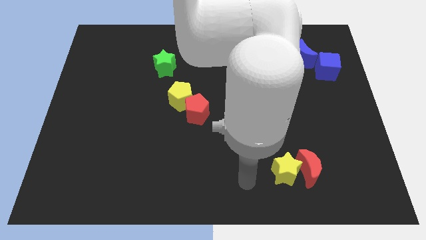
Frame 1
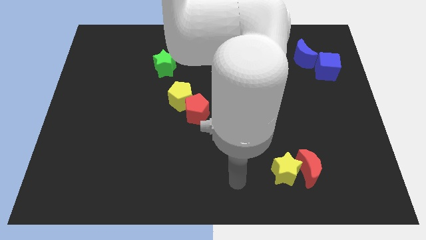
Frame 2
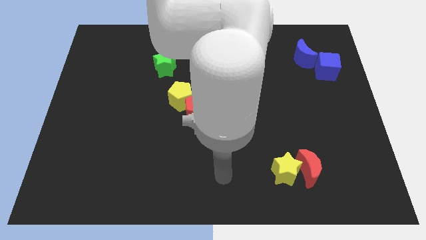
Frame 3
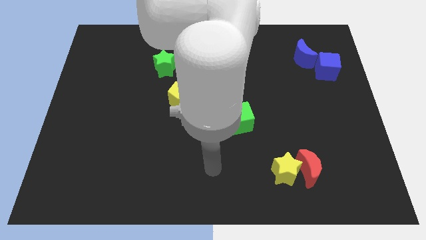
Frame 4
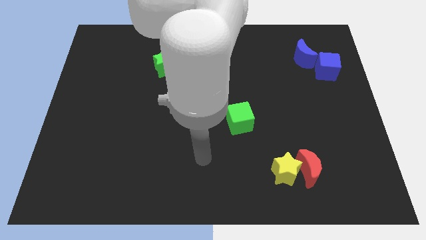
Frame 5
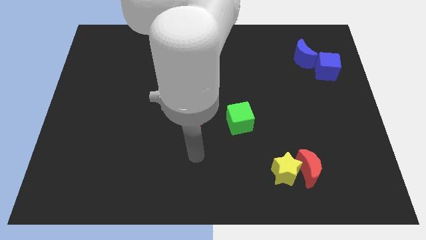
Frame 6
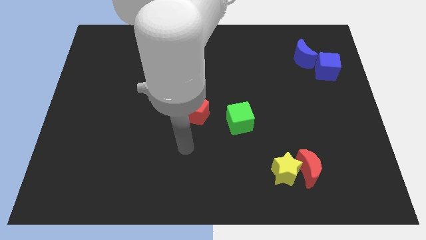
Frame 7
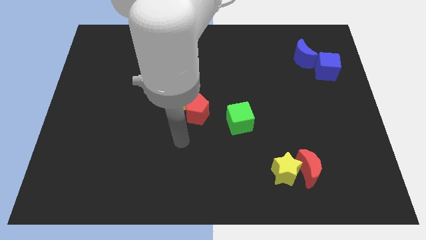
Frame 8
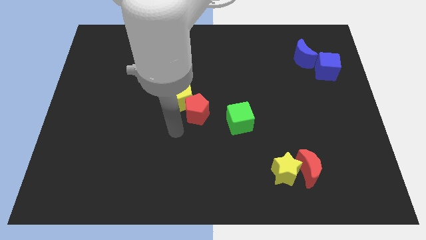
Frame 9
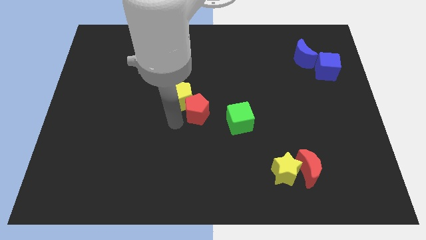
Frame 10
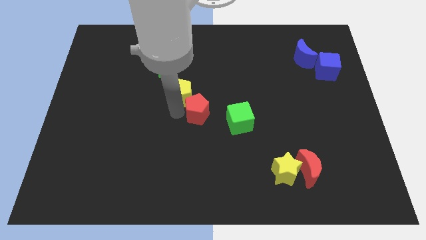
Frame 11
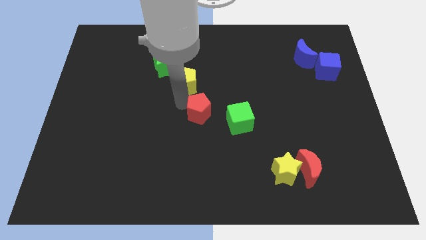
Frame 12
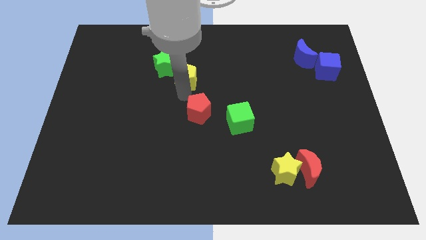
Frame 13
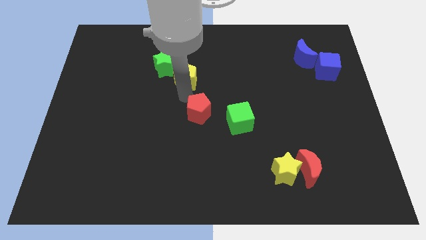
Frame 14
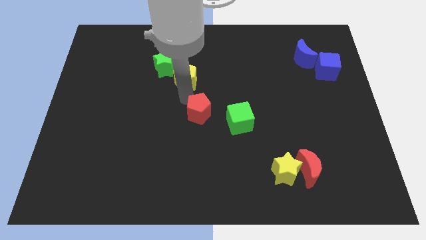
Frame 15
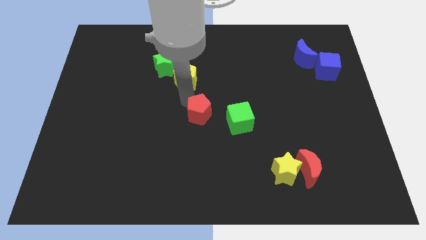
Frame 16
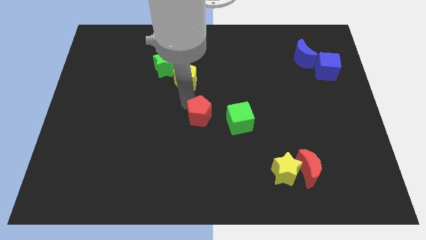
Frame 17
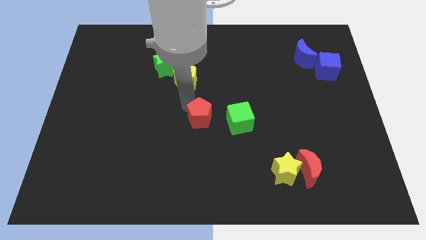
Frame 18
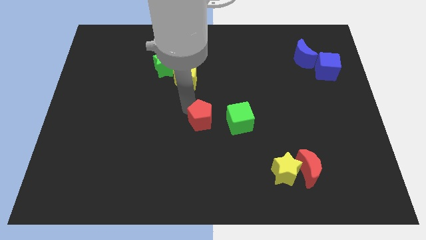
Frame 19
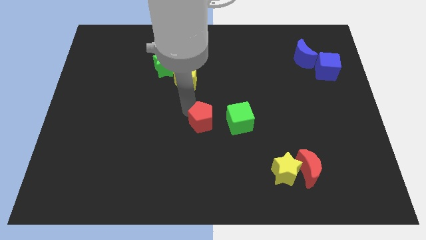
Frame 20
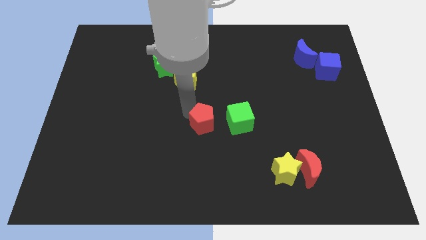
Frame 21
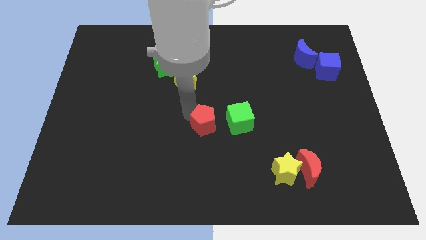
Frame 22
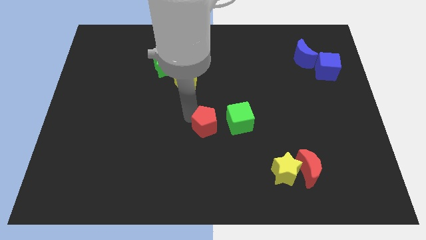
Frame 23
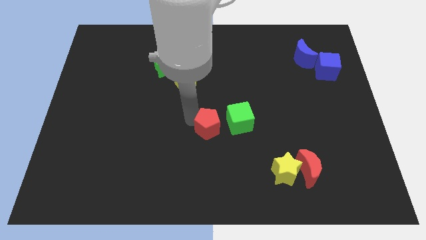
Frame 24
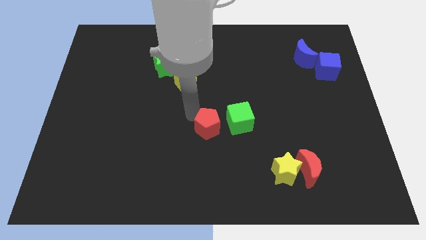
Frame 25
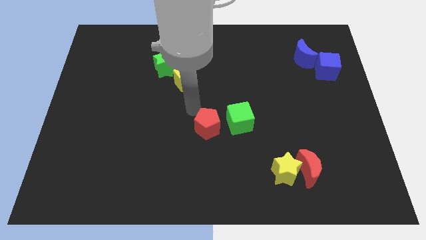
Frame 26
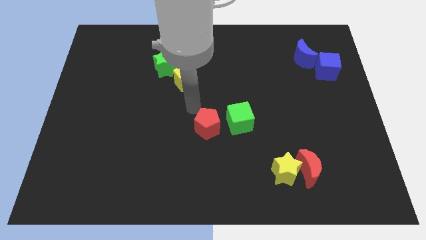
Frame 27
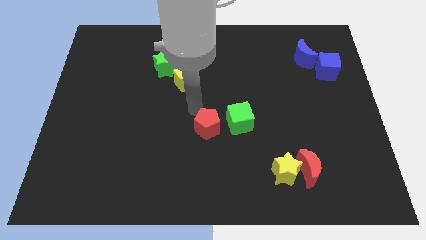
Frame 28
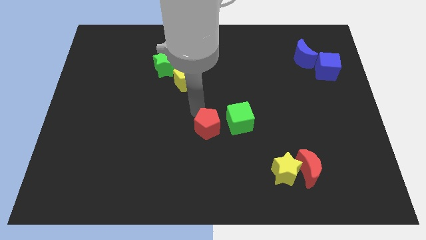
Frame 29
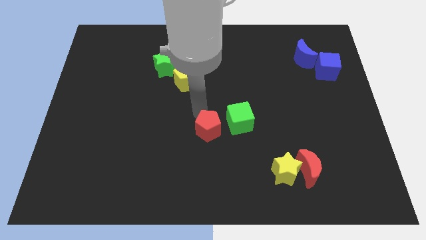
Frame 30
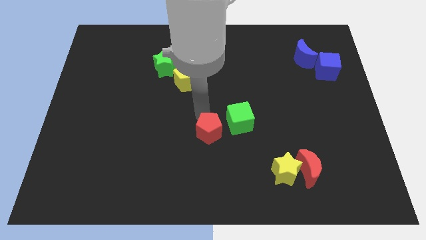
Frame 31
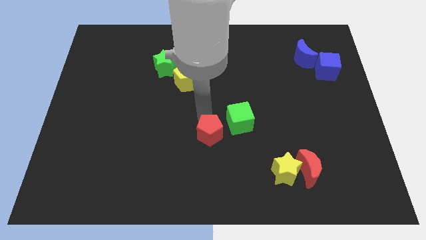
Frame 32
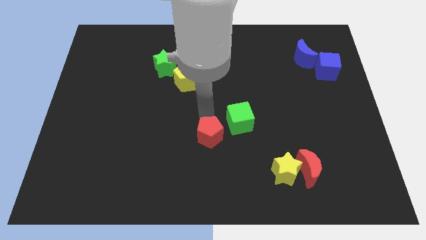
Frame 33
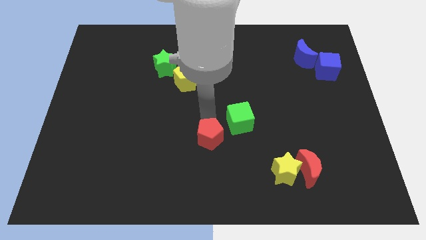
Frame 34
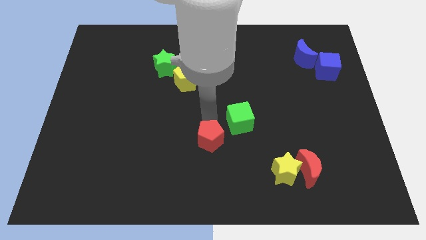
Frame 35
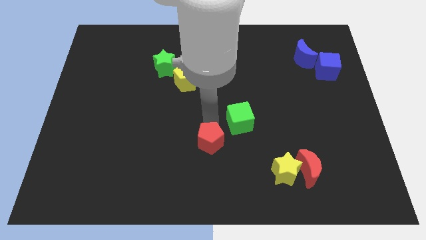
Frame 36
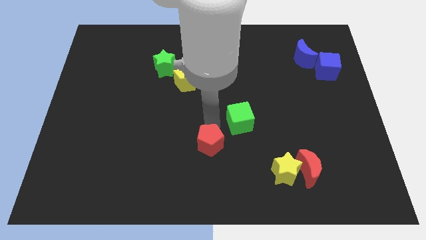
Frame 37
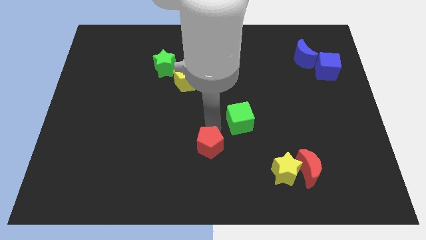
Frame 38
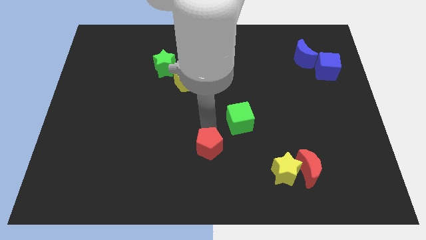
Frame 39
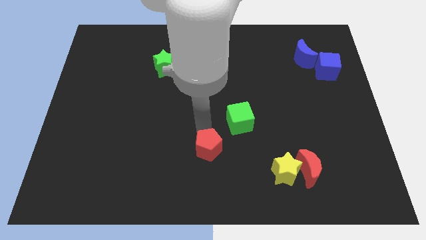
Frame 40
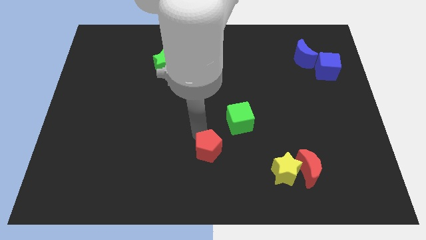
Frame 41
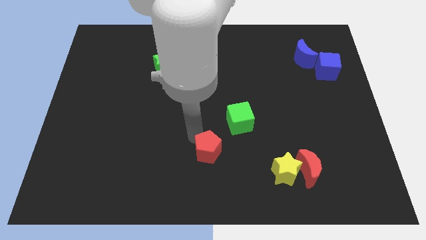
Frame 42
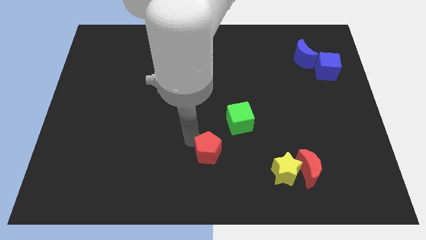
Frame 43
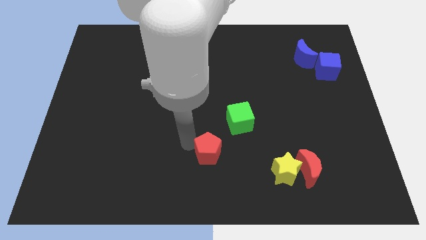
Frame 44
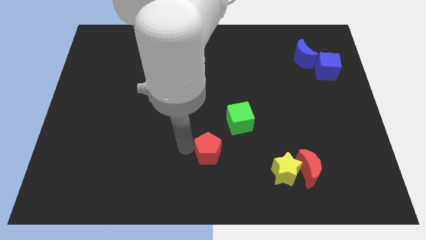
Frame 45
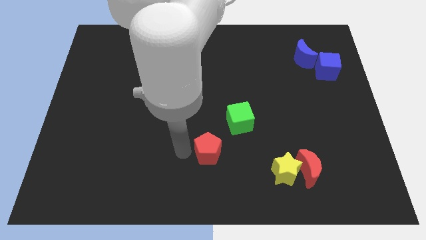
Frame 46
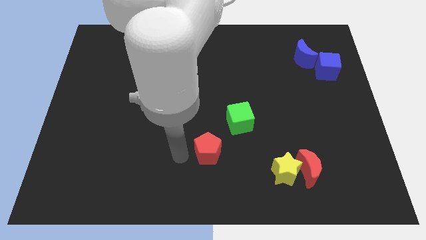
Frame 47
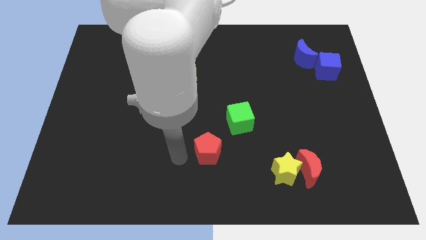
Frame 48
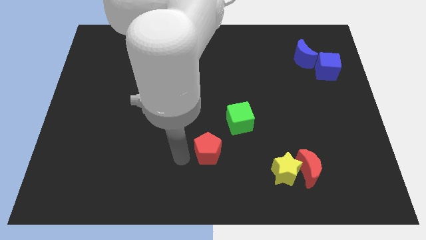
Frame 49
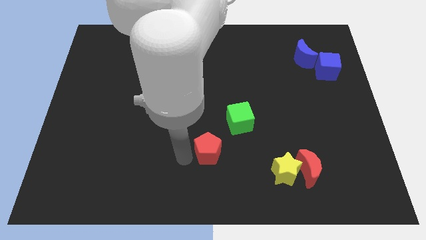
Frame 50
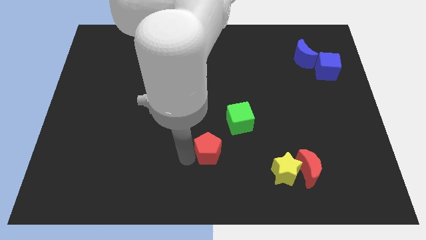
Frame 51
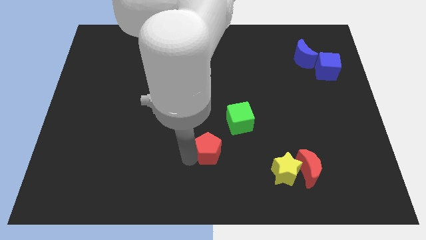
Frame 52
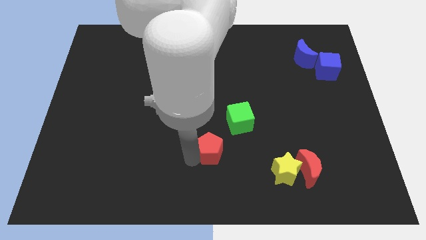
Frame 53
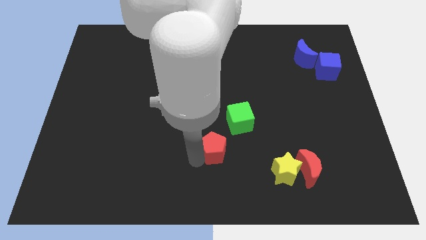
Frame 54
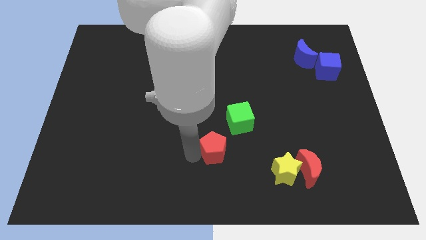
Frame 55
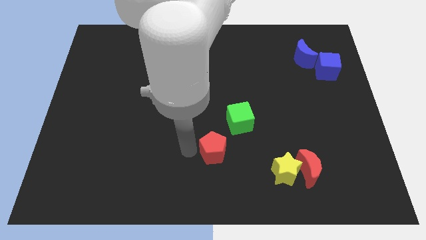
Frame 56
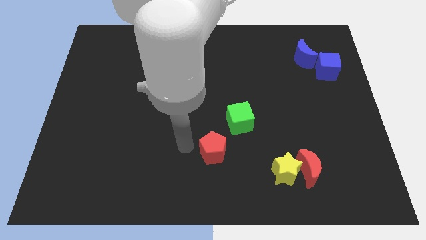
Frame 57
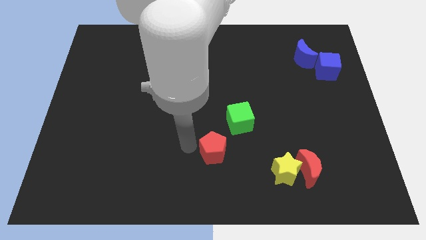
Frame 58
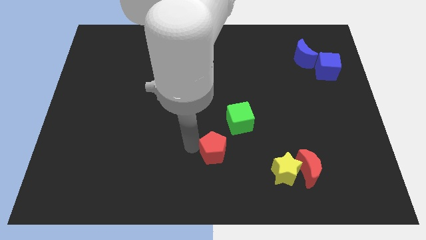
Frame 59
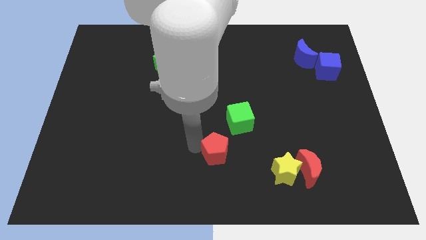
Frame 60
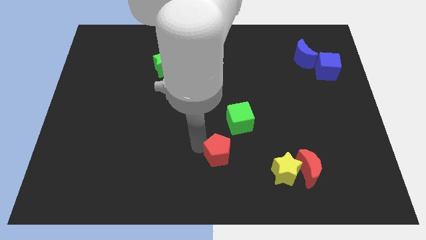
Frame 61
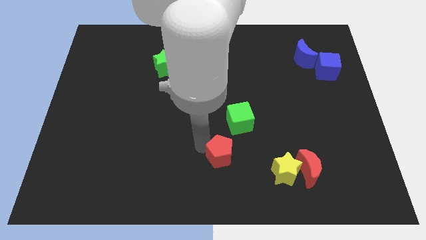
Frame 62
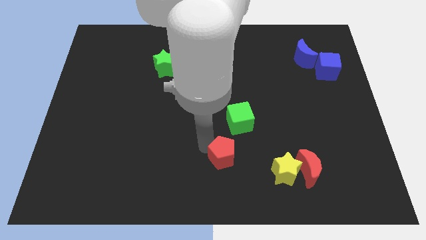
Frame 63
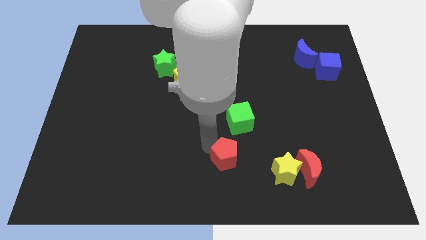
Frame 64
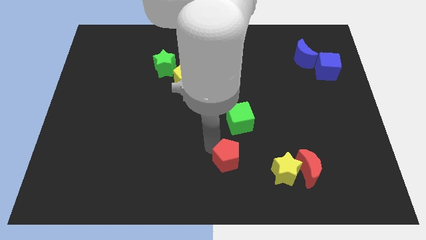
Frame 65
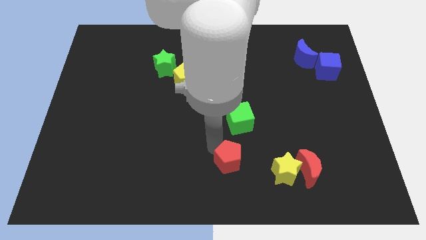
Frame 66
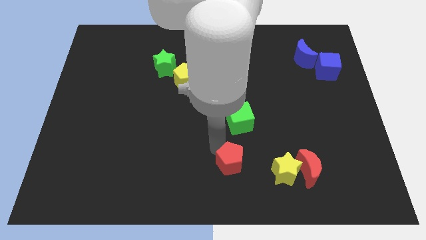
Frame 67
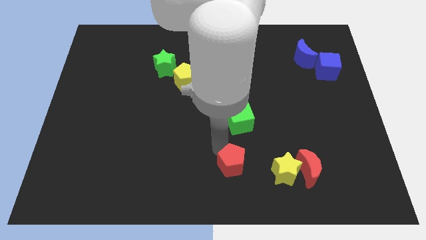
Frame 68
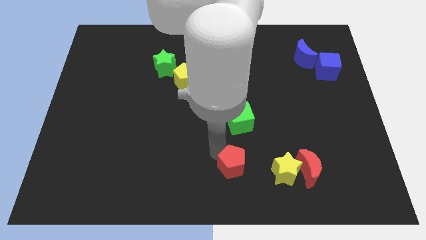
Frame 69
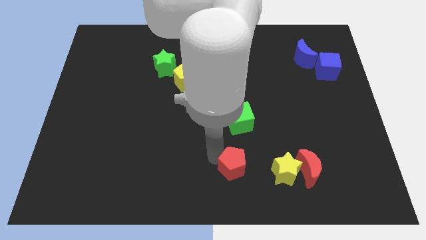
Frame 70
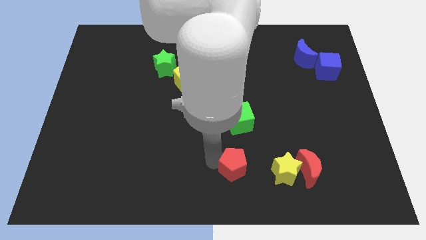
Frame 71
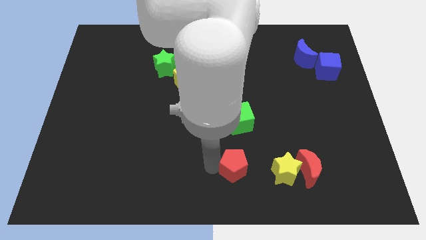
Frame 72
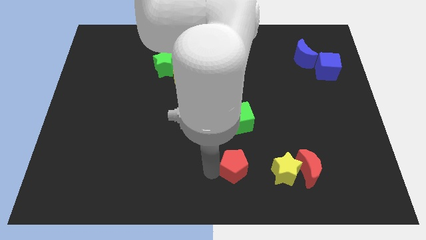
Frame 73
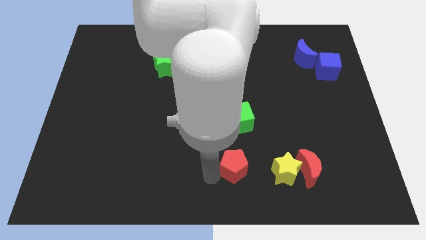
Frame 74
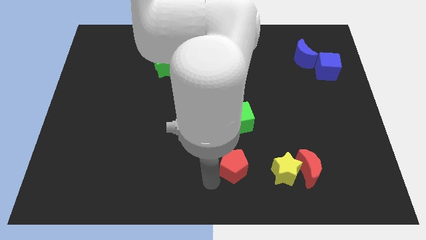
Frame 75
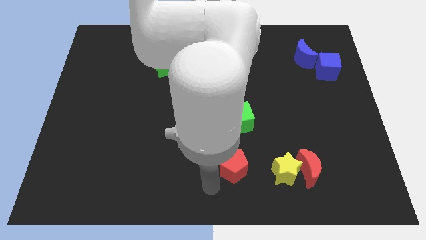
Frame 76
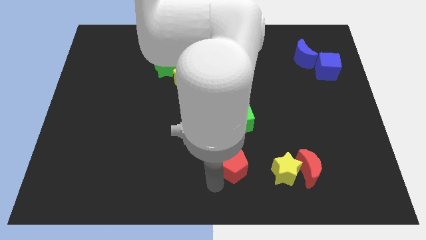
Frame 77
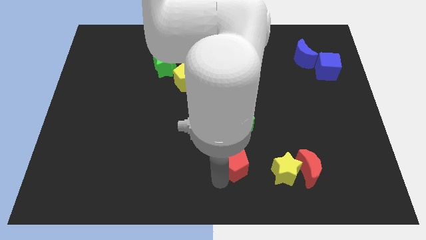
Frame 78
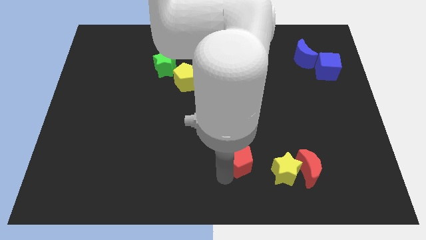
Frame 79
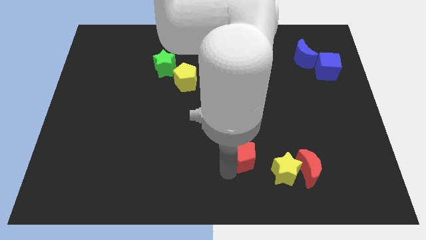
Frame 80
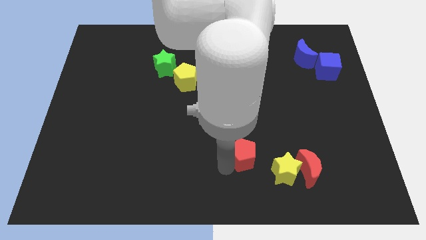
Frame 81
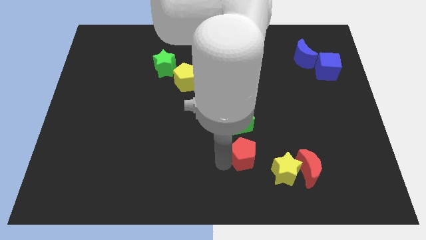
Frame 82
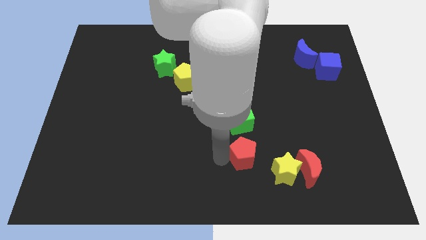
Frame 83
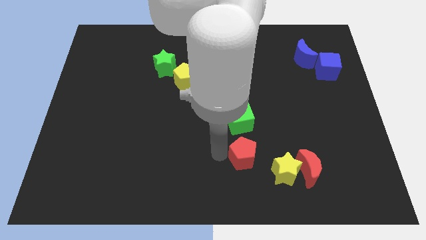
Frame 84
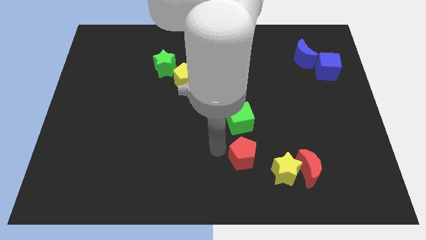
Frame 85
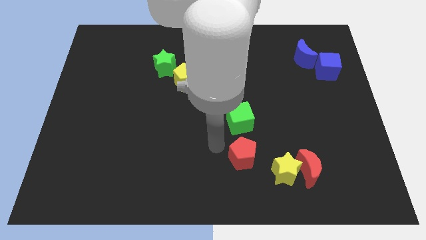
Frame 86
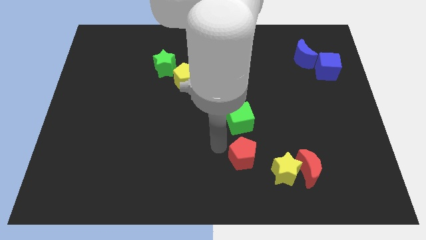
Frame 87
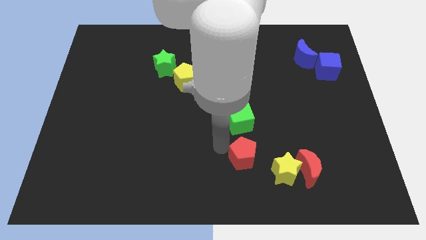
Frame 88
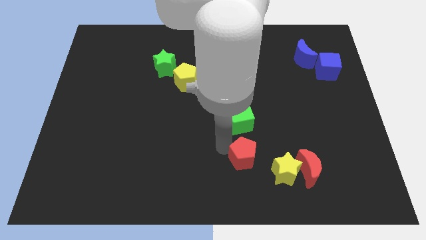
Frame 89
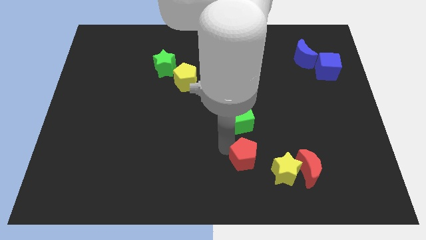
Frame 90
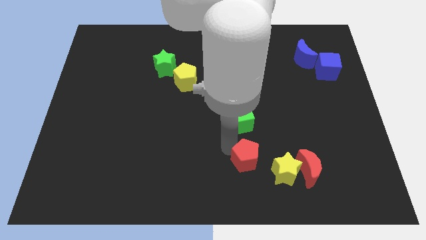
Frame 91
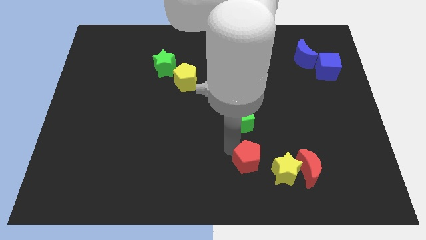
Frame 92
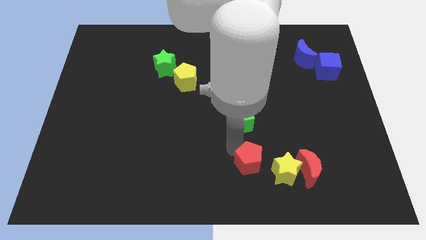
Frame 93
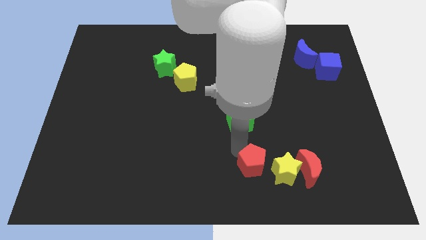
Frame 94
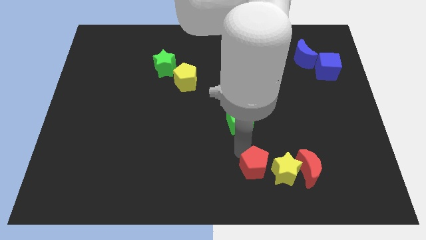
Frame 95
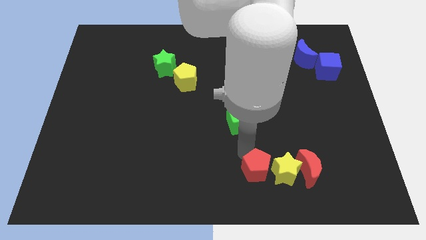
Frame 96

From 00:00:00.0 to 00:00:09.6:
push the red pentagon towards the yellow star
